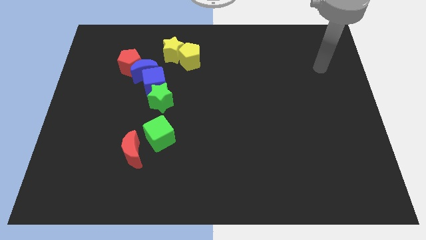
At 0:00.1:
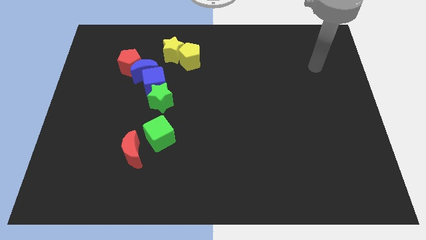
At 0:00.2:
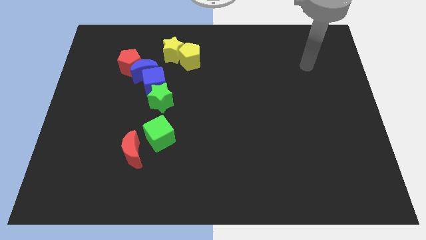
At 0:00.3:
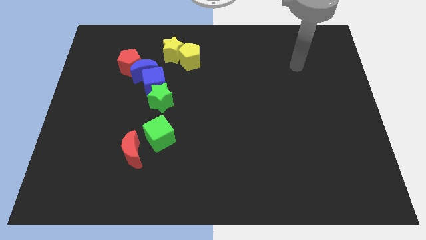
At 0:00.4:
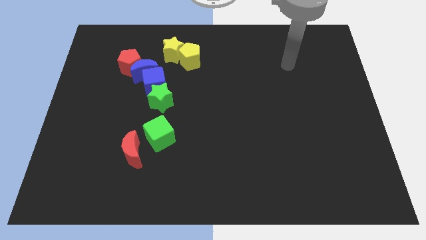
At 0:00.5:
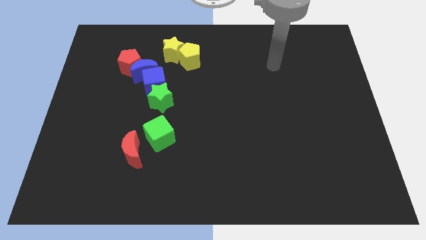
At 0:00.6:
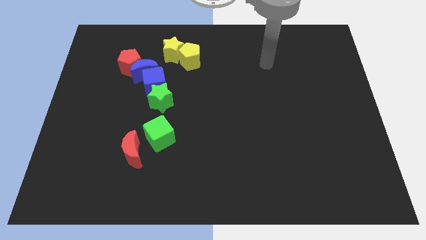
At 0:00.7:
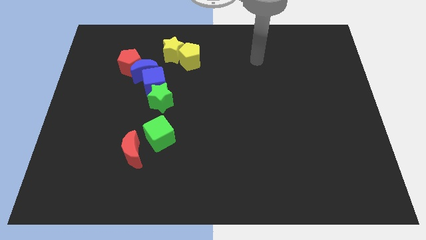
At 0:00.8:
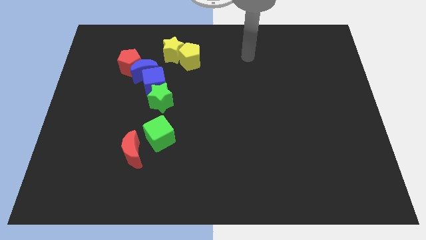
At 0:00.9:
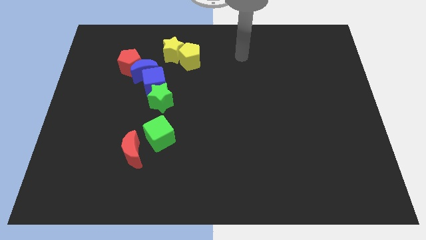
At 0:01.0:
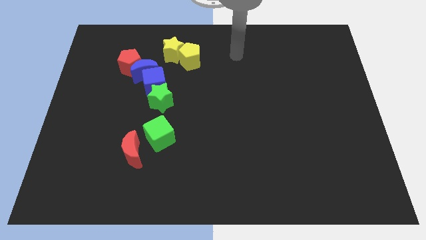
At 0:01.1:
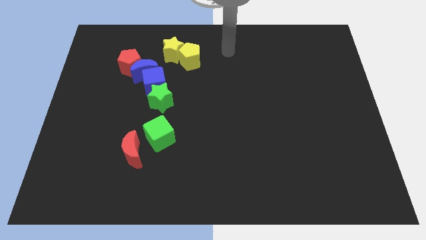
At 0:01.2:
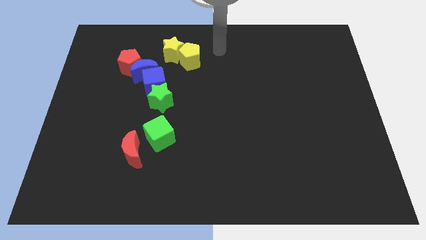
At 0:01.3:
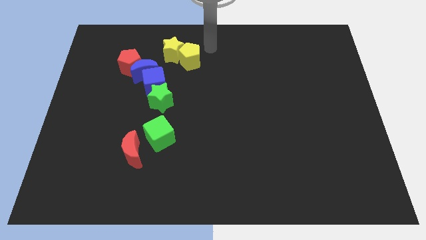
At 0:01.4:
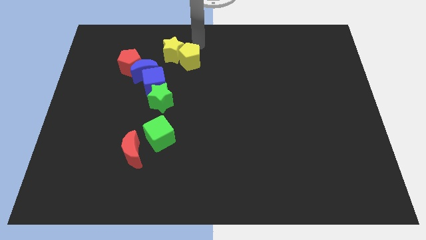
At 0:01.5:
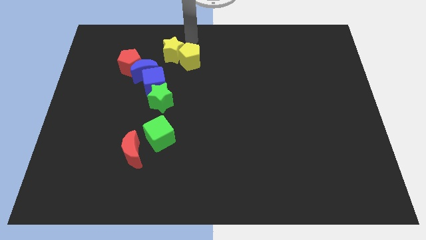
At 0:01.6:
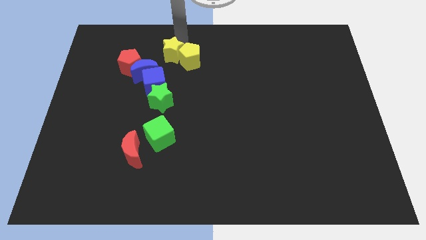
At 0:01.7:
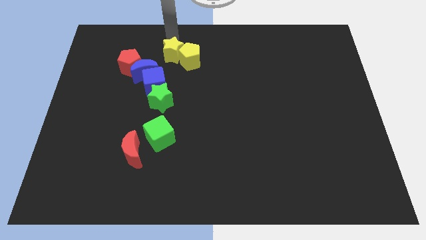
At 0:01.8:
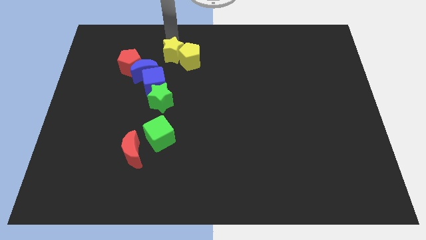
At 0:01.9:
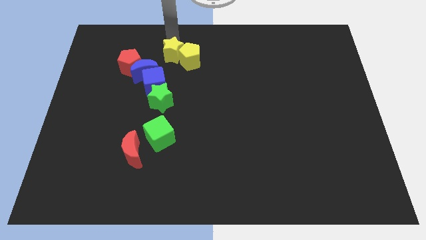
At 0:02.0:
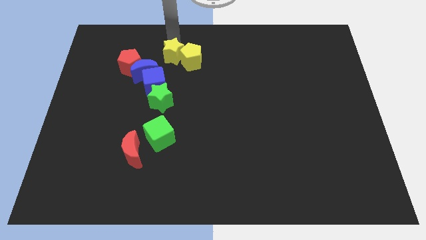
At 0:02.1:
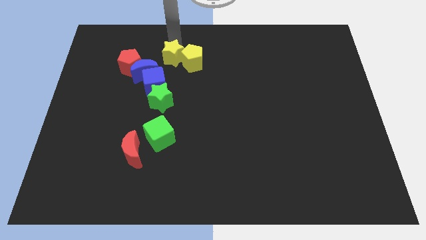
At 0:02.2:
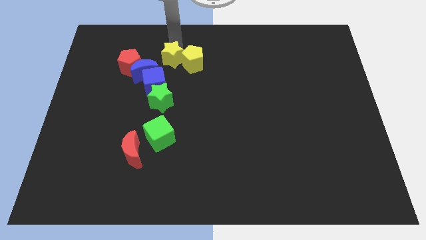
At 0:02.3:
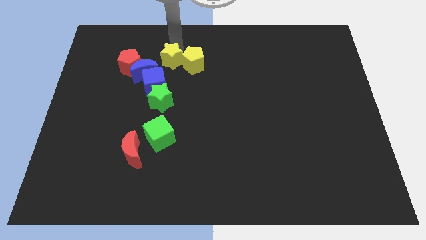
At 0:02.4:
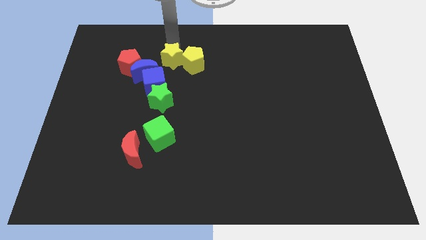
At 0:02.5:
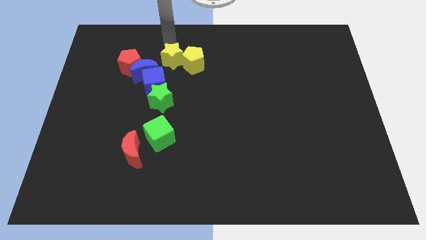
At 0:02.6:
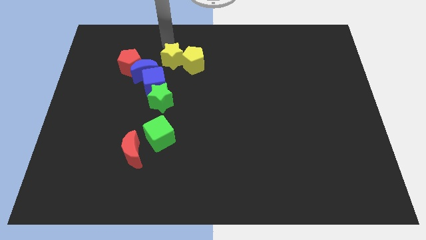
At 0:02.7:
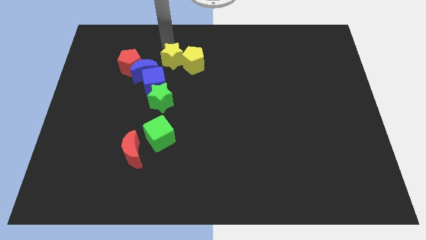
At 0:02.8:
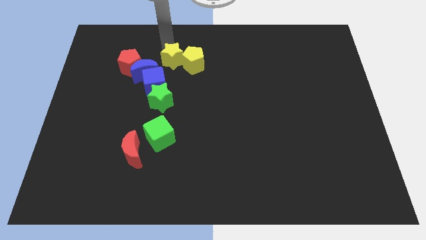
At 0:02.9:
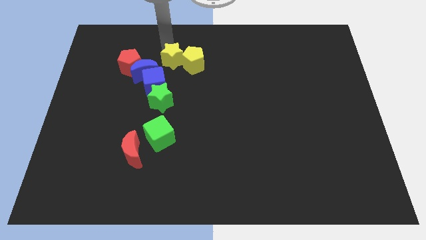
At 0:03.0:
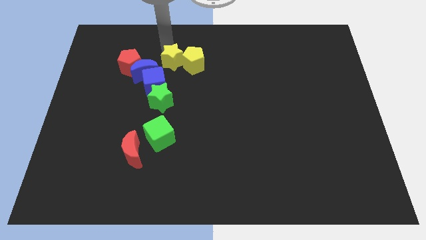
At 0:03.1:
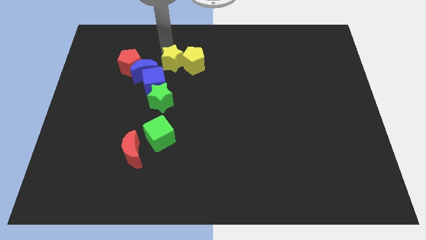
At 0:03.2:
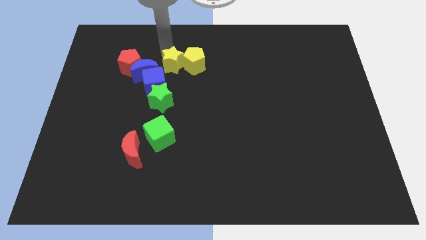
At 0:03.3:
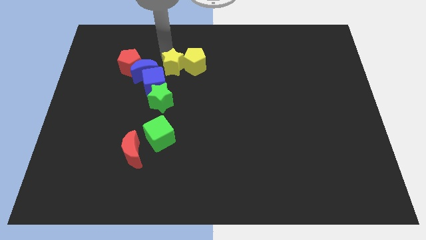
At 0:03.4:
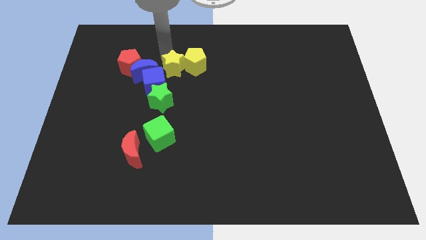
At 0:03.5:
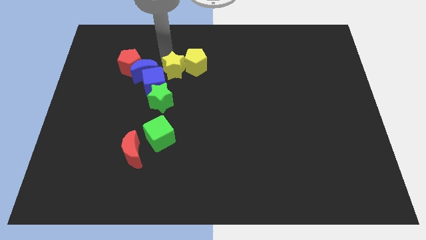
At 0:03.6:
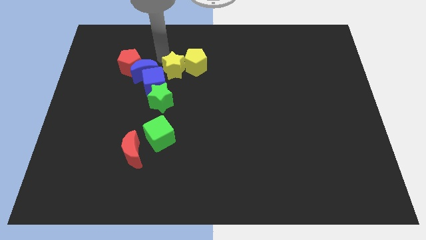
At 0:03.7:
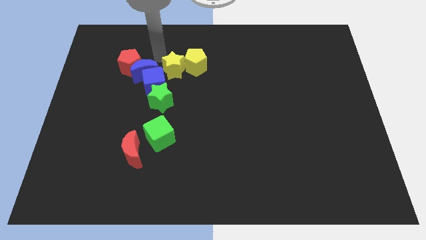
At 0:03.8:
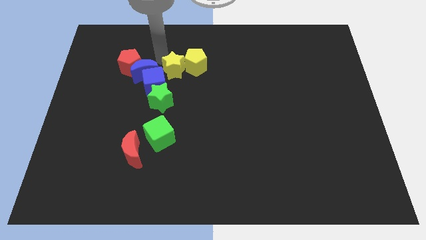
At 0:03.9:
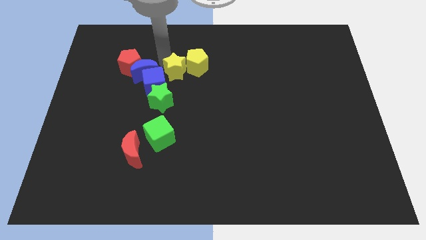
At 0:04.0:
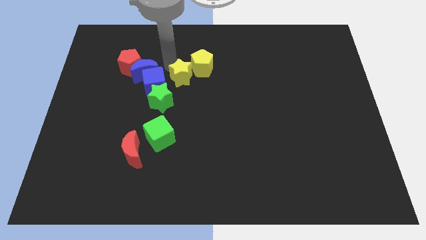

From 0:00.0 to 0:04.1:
push the yellow star slightly down

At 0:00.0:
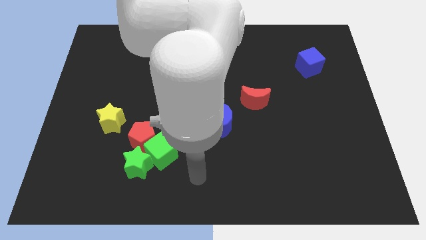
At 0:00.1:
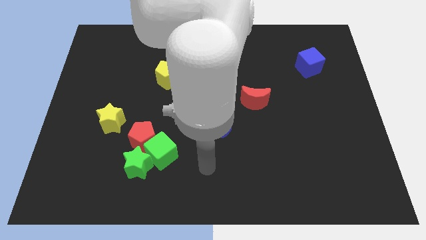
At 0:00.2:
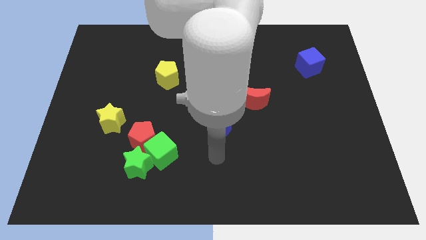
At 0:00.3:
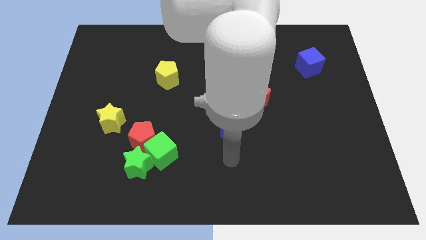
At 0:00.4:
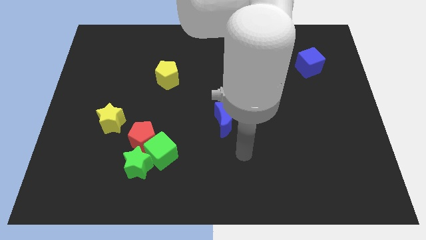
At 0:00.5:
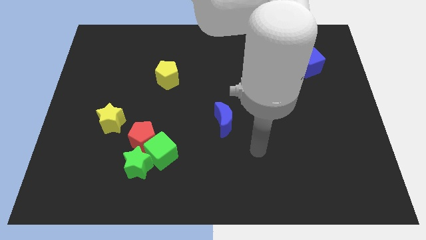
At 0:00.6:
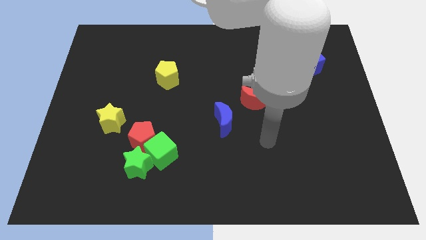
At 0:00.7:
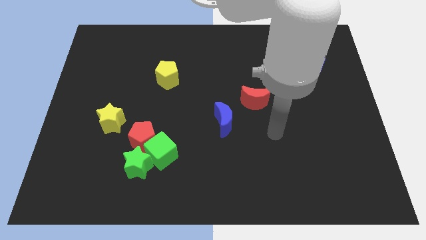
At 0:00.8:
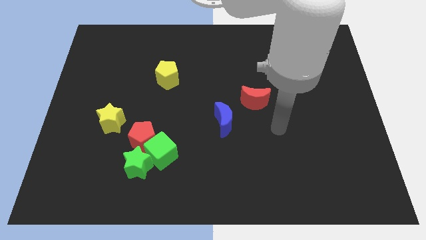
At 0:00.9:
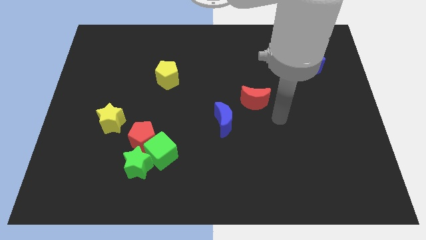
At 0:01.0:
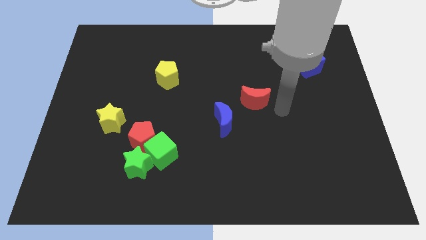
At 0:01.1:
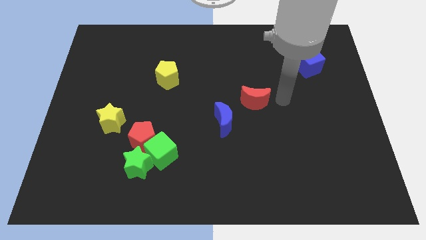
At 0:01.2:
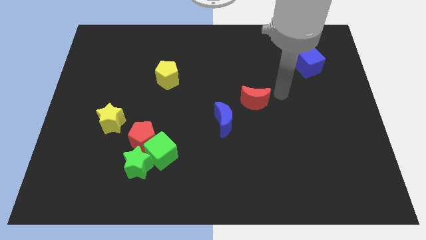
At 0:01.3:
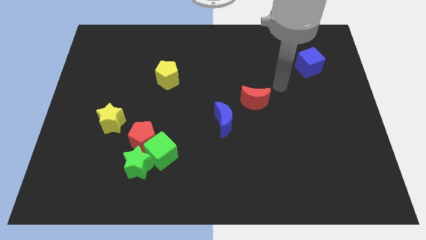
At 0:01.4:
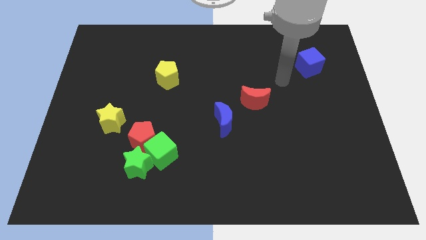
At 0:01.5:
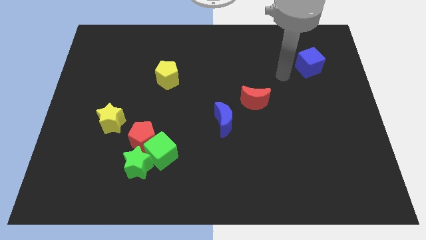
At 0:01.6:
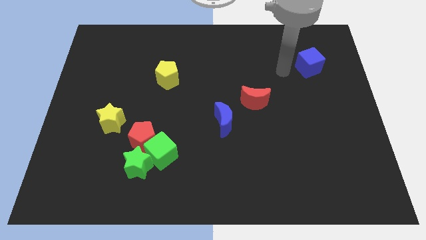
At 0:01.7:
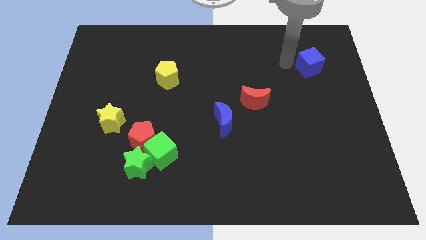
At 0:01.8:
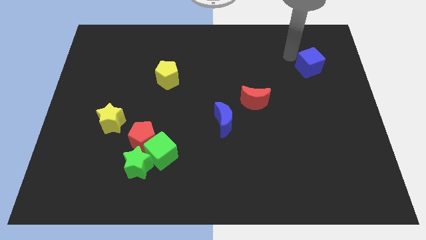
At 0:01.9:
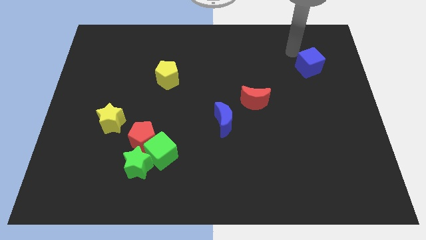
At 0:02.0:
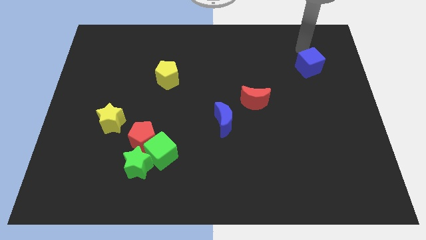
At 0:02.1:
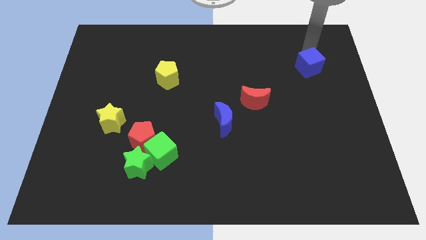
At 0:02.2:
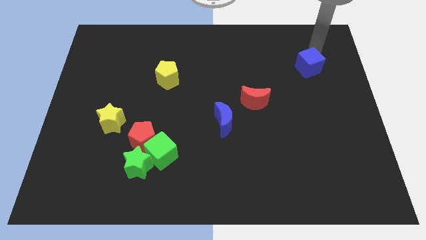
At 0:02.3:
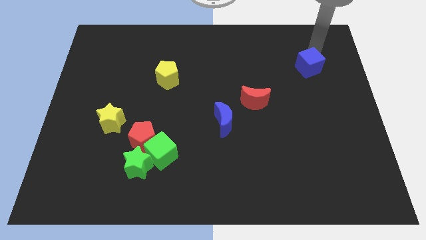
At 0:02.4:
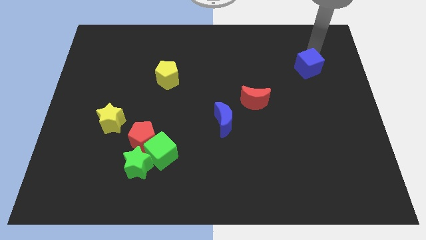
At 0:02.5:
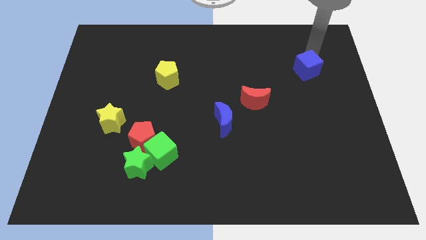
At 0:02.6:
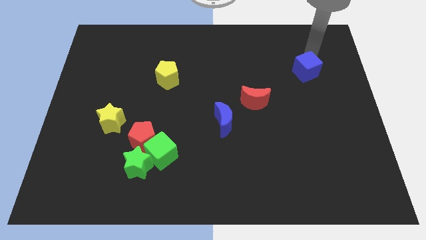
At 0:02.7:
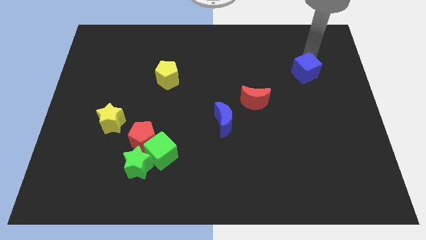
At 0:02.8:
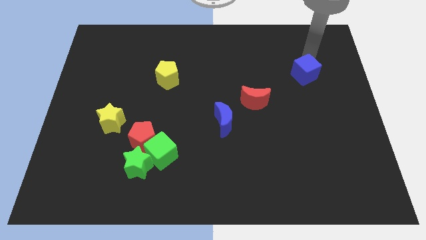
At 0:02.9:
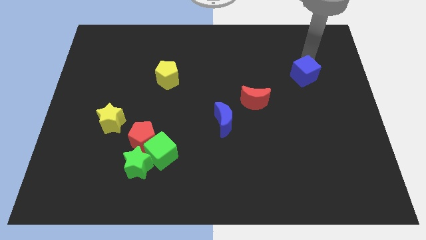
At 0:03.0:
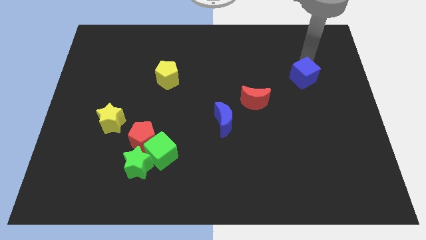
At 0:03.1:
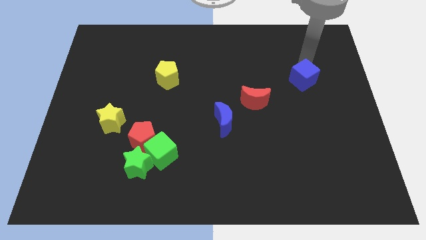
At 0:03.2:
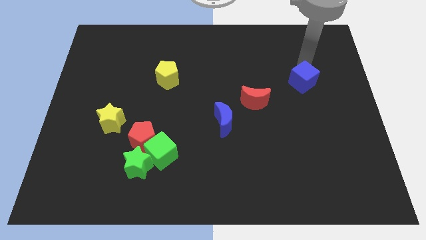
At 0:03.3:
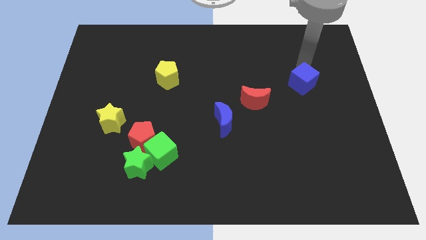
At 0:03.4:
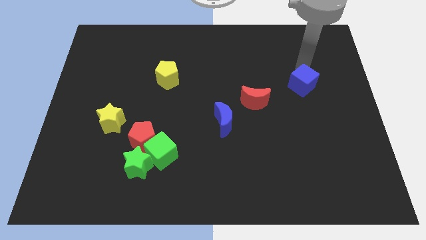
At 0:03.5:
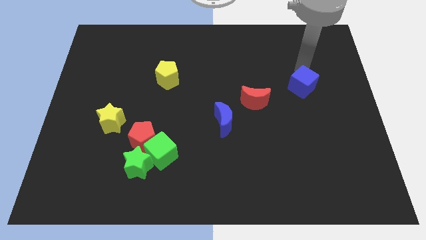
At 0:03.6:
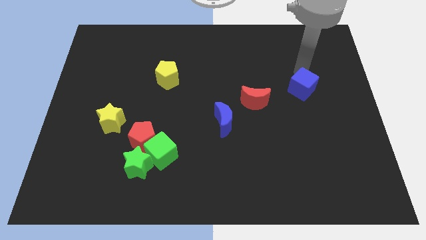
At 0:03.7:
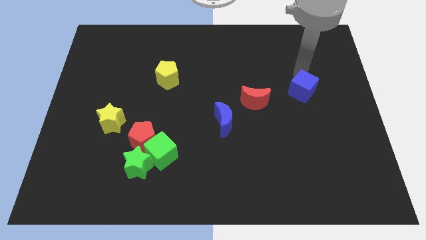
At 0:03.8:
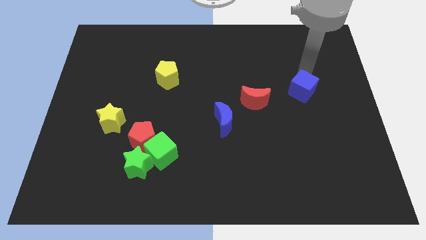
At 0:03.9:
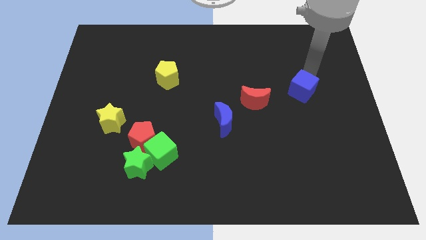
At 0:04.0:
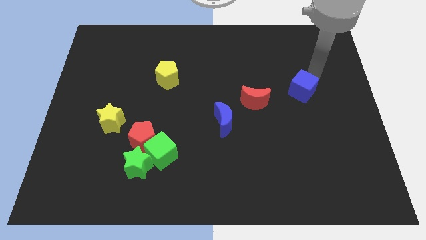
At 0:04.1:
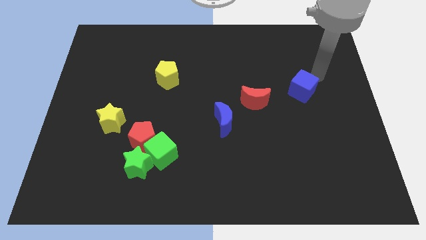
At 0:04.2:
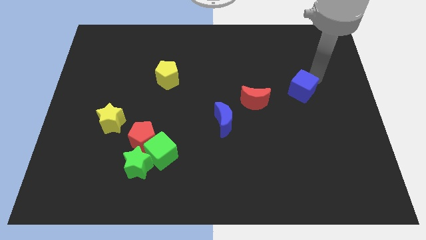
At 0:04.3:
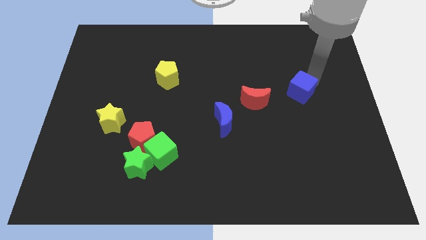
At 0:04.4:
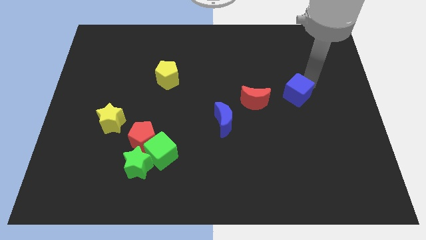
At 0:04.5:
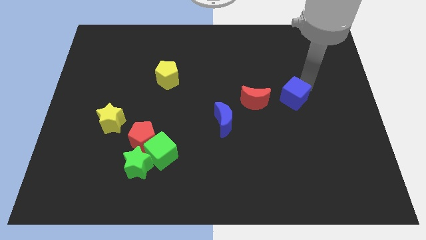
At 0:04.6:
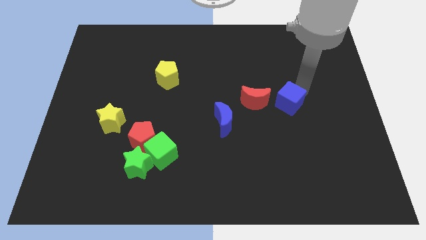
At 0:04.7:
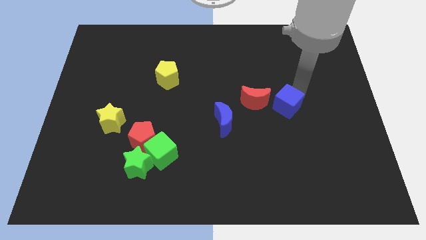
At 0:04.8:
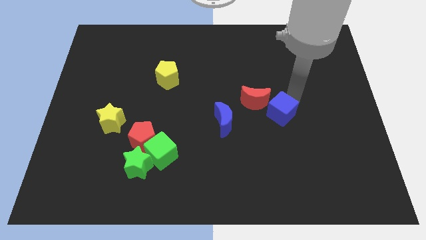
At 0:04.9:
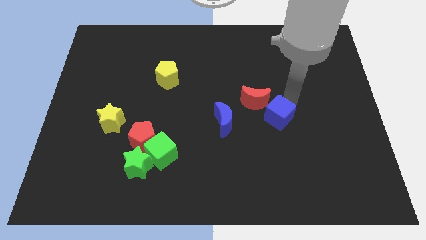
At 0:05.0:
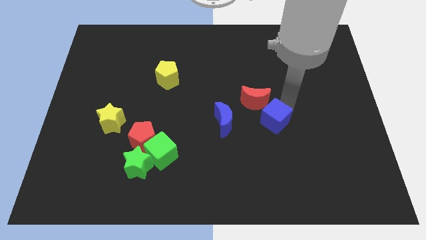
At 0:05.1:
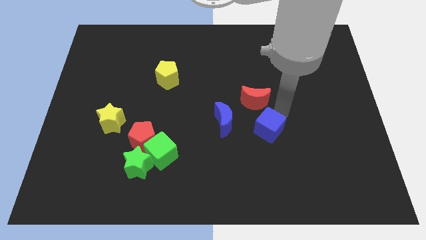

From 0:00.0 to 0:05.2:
slide the blue cube downwards and left
